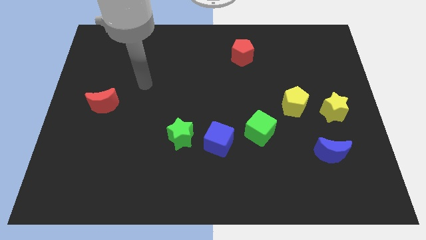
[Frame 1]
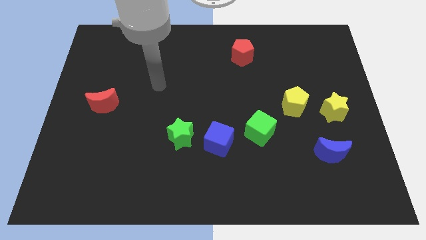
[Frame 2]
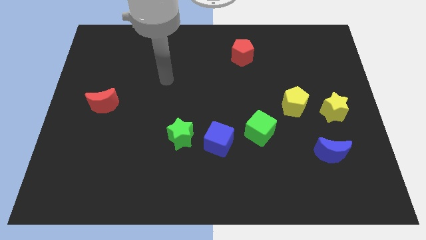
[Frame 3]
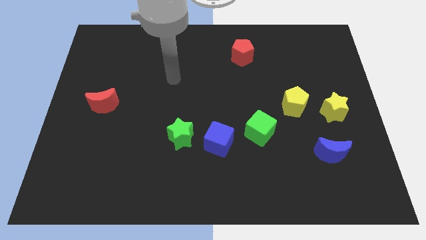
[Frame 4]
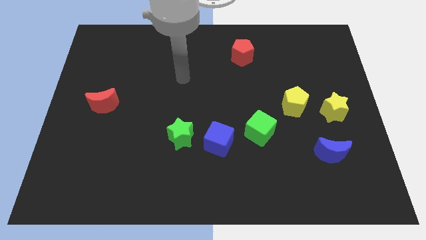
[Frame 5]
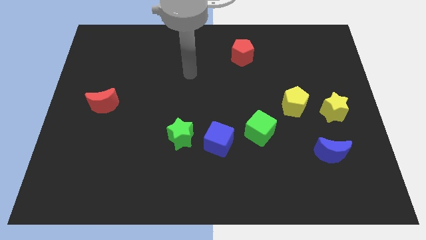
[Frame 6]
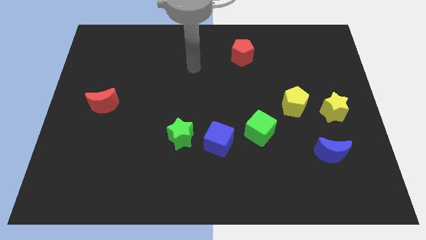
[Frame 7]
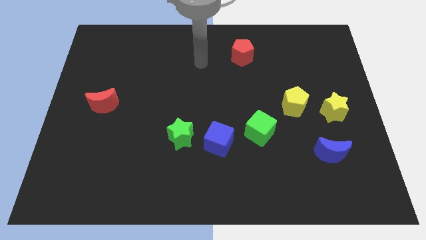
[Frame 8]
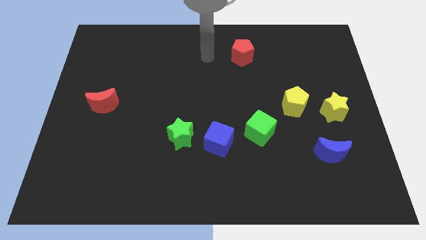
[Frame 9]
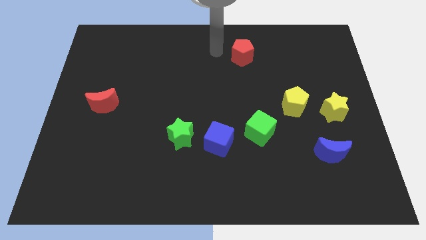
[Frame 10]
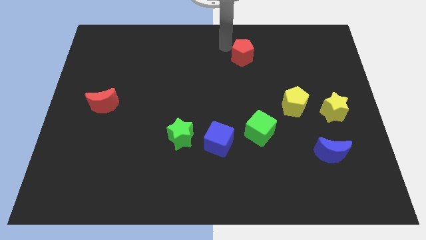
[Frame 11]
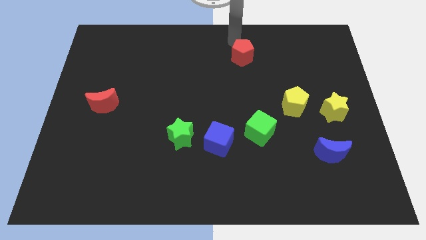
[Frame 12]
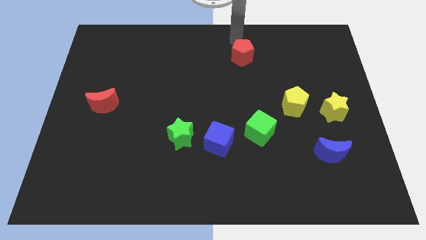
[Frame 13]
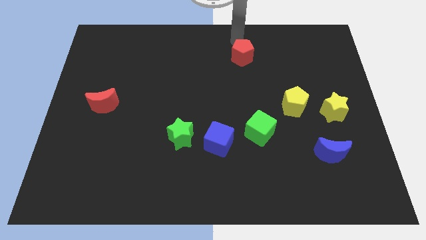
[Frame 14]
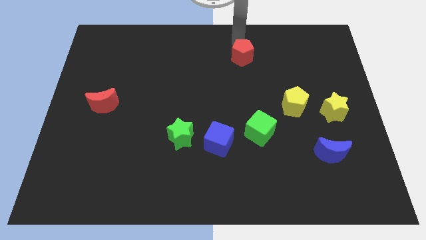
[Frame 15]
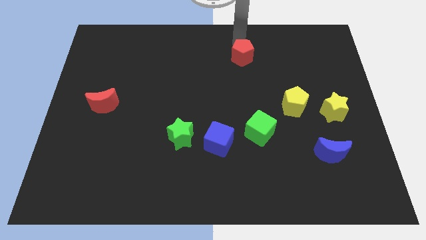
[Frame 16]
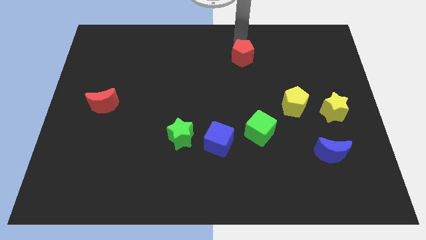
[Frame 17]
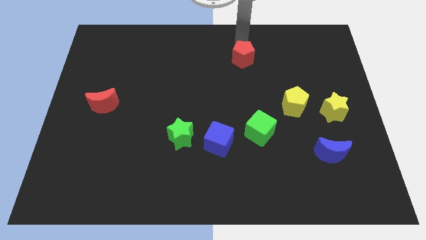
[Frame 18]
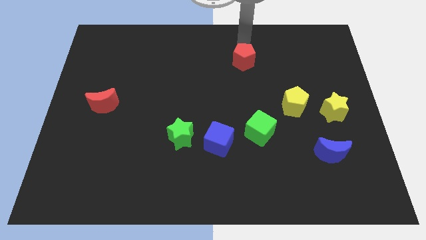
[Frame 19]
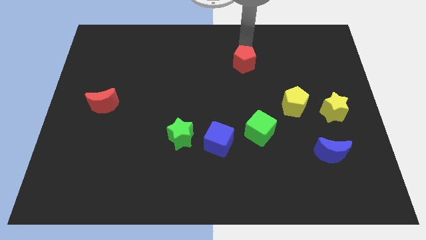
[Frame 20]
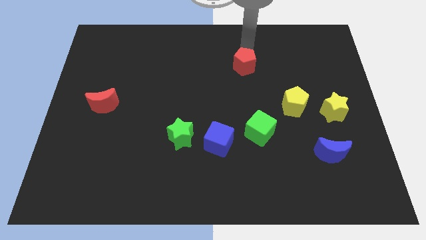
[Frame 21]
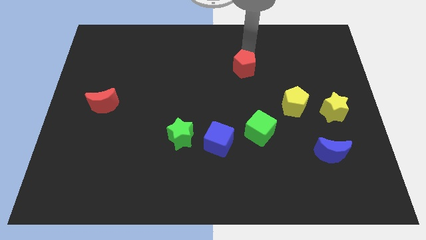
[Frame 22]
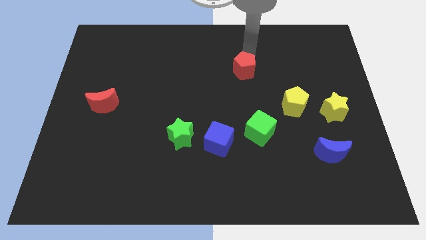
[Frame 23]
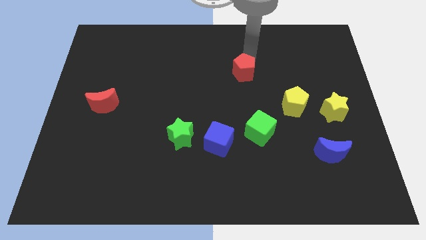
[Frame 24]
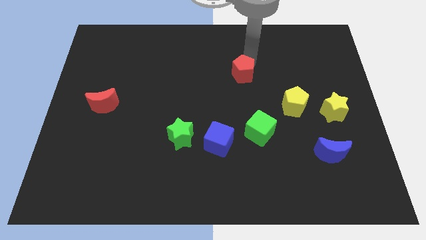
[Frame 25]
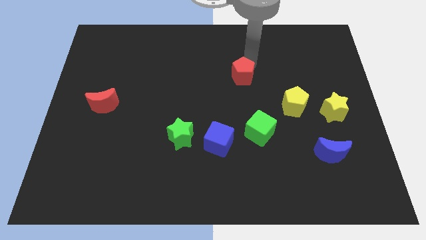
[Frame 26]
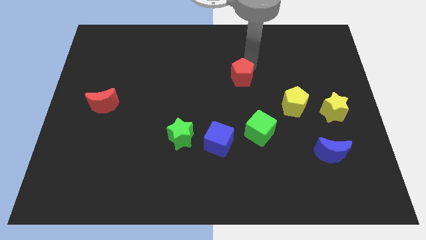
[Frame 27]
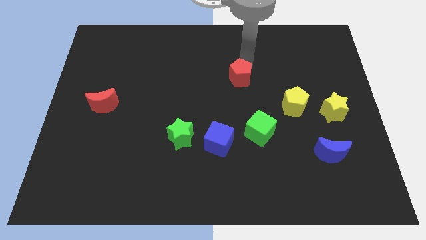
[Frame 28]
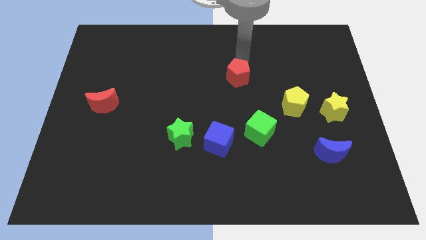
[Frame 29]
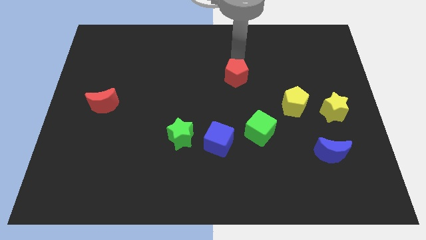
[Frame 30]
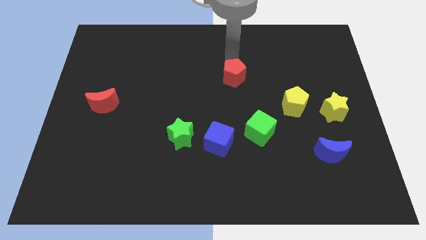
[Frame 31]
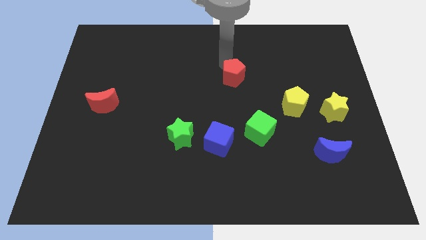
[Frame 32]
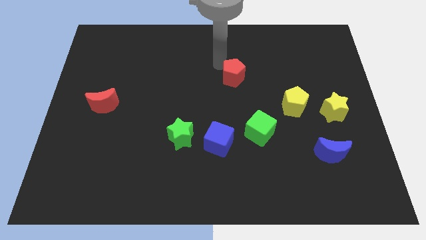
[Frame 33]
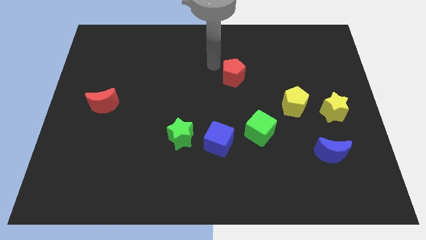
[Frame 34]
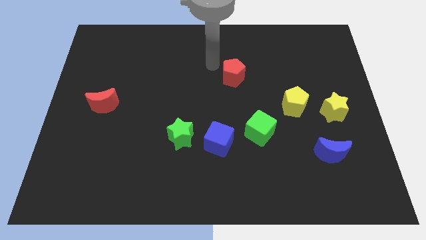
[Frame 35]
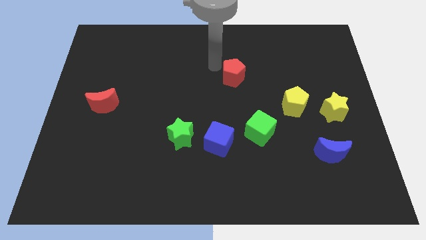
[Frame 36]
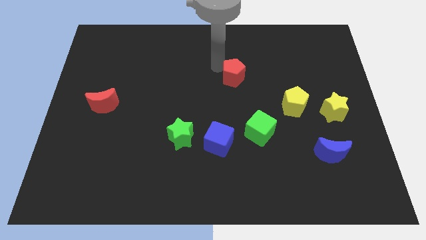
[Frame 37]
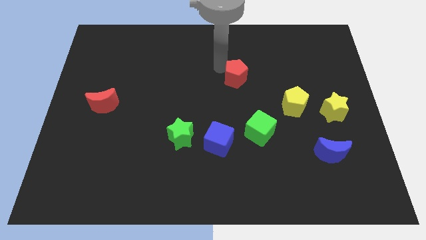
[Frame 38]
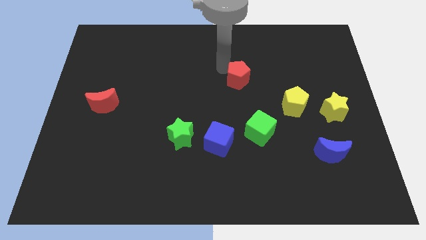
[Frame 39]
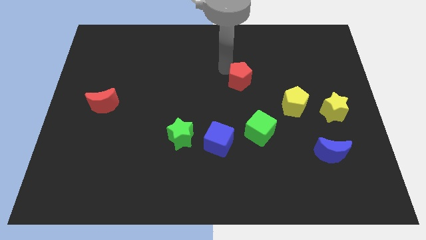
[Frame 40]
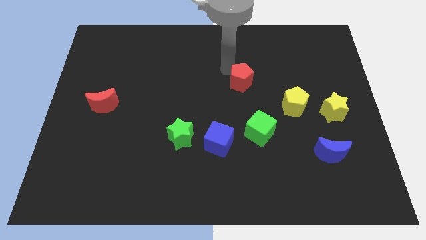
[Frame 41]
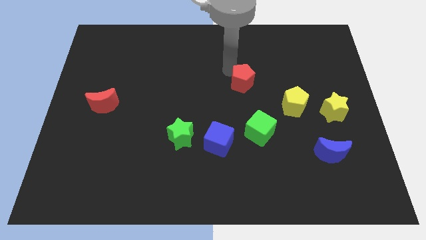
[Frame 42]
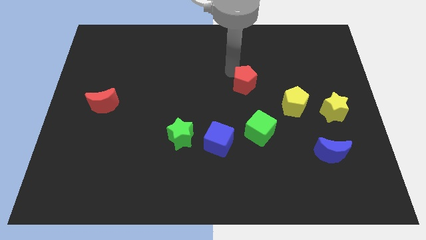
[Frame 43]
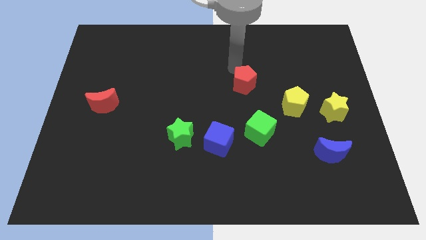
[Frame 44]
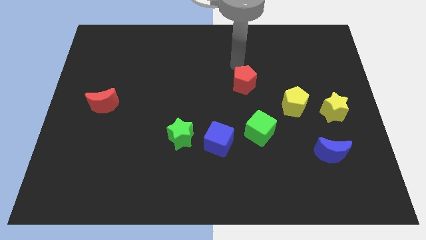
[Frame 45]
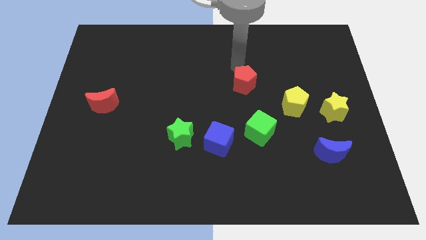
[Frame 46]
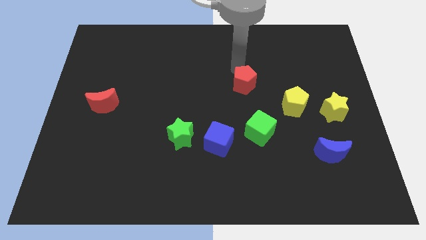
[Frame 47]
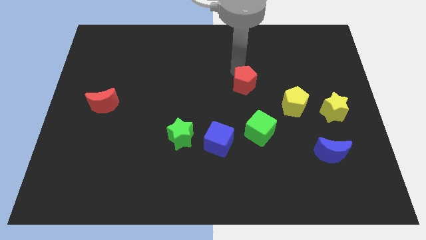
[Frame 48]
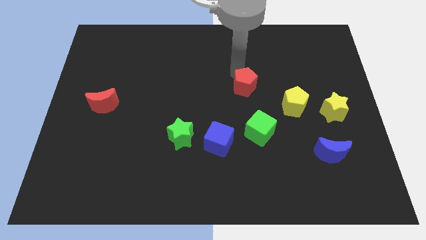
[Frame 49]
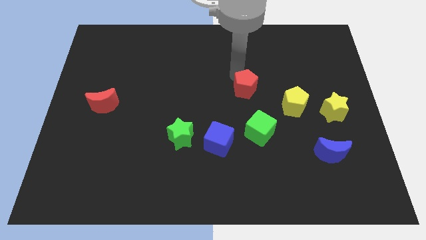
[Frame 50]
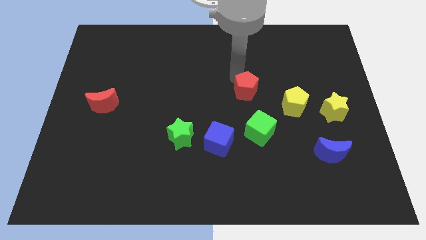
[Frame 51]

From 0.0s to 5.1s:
slide the red pentagon left of the yellow pentagon

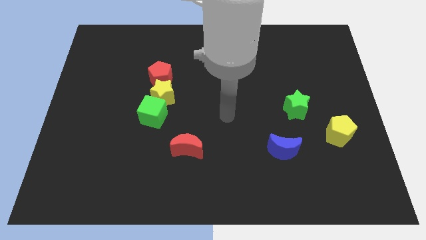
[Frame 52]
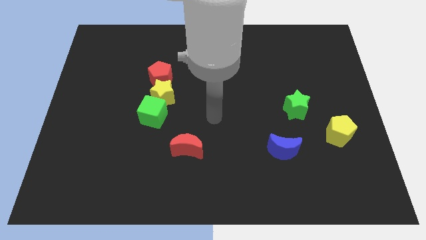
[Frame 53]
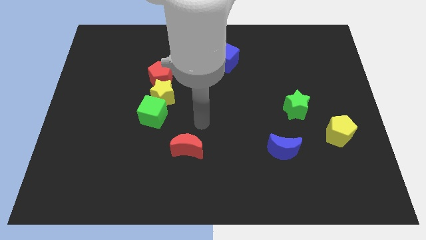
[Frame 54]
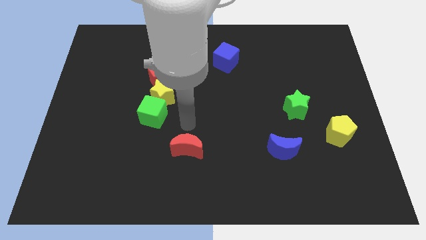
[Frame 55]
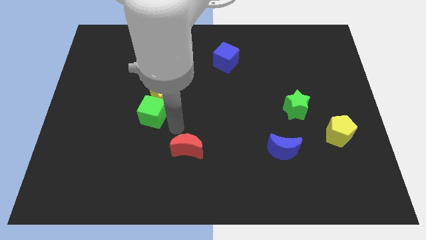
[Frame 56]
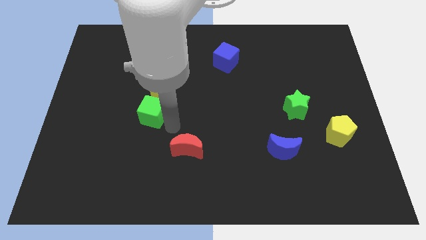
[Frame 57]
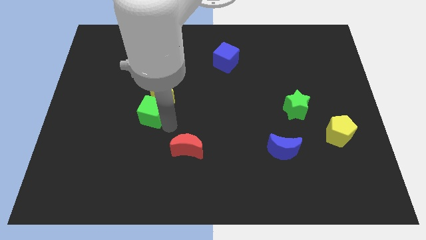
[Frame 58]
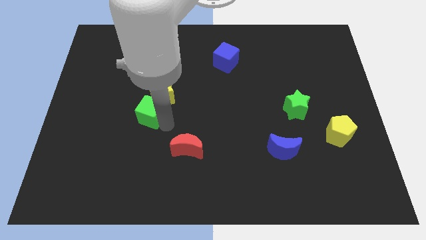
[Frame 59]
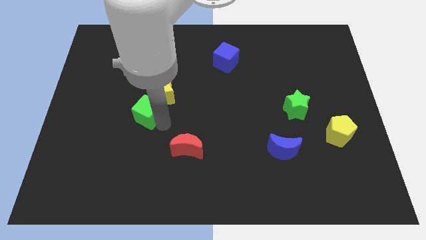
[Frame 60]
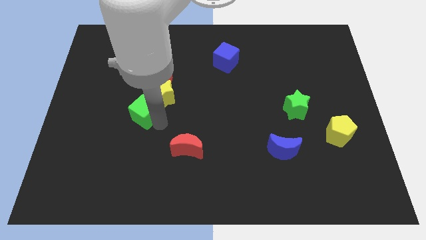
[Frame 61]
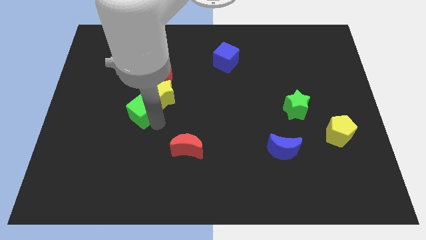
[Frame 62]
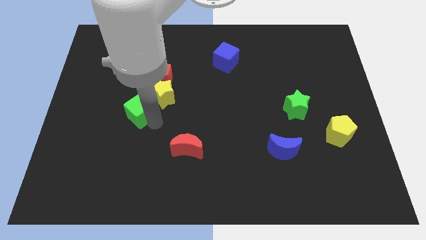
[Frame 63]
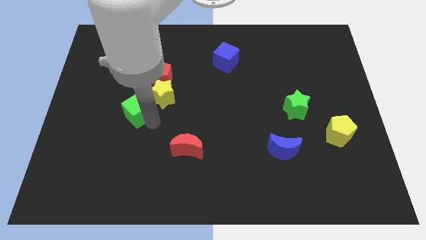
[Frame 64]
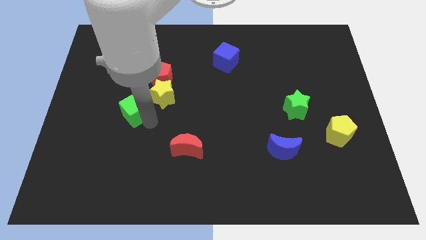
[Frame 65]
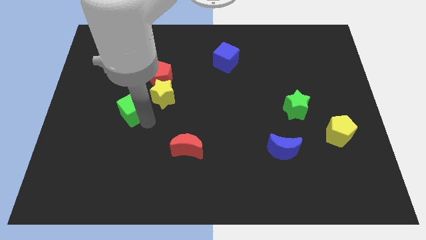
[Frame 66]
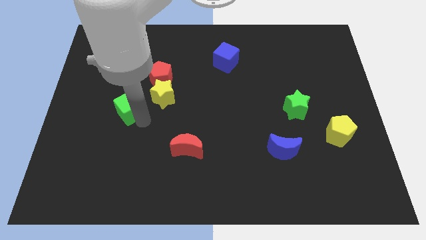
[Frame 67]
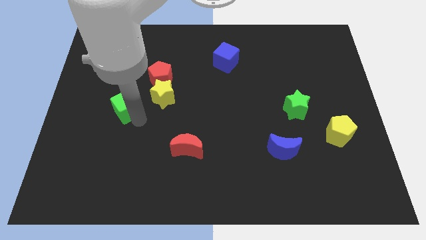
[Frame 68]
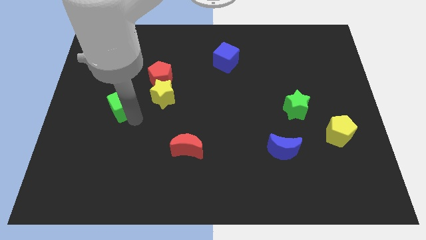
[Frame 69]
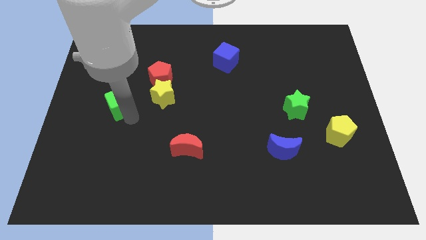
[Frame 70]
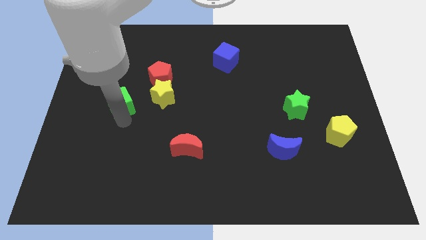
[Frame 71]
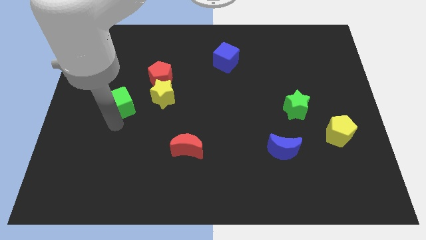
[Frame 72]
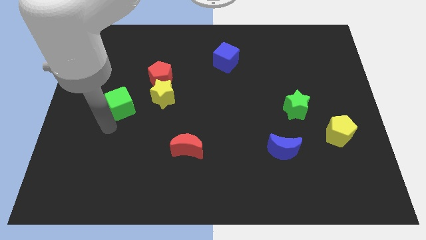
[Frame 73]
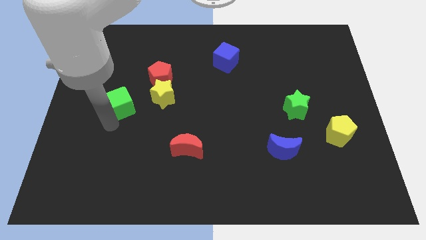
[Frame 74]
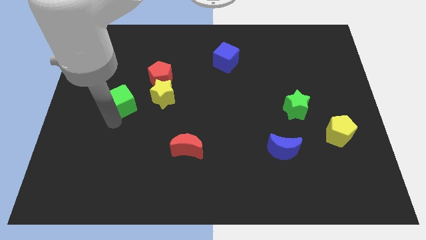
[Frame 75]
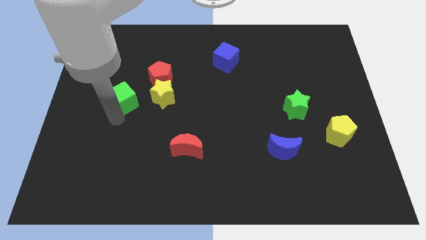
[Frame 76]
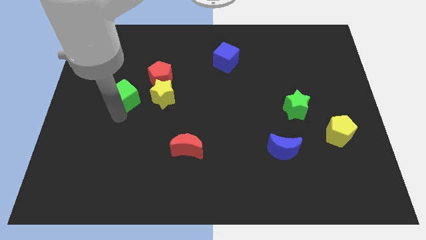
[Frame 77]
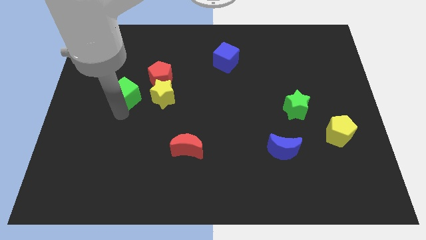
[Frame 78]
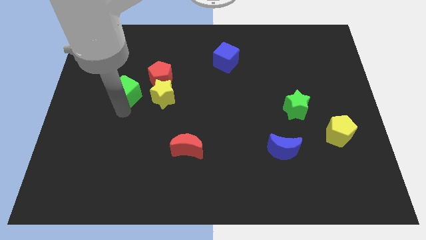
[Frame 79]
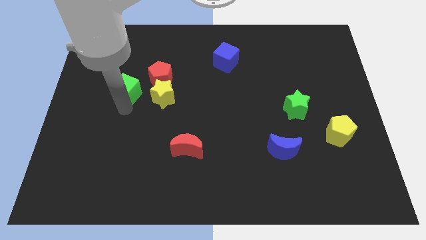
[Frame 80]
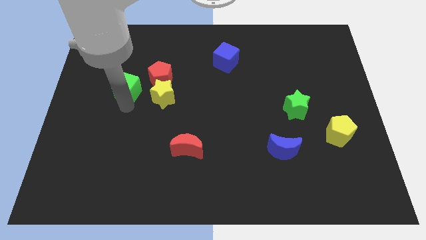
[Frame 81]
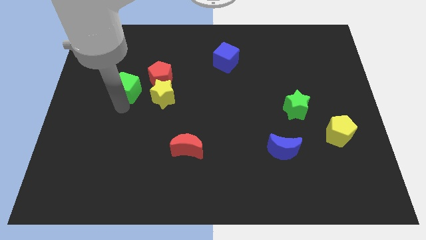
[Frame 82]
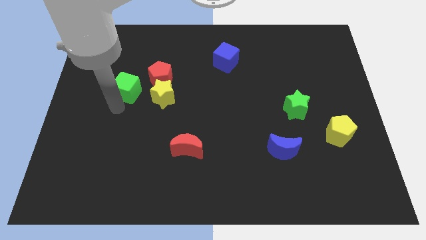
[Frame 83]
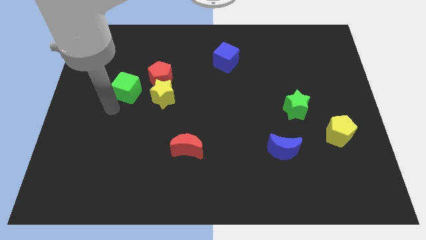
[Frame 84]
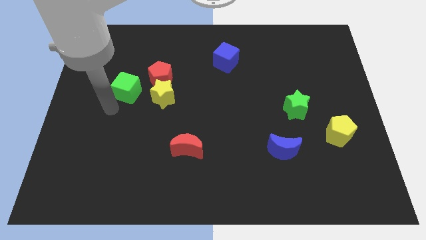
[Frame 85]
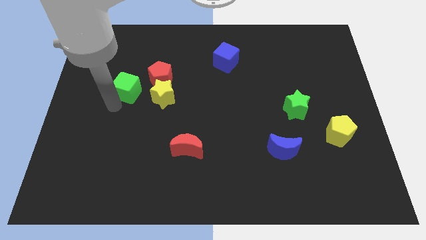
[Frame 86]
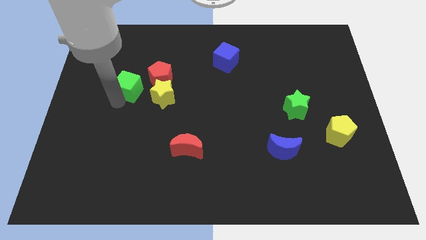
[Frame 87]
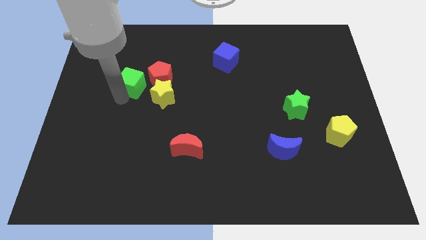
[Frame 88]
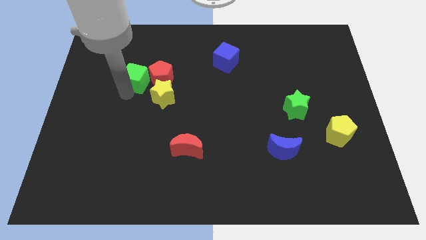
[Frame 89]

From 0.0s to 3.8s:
move the green cube to the top left of the red pentagon
